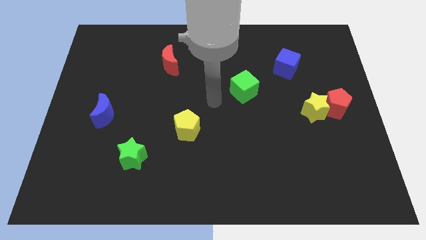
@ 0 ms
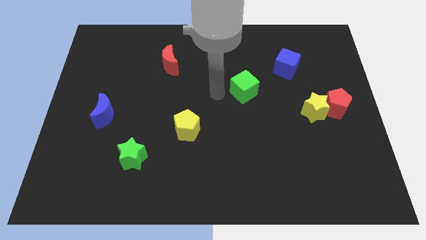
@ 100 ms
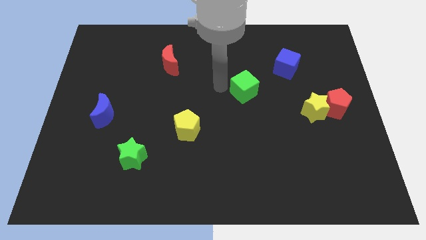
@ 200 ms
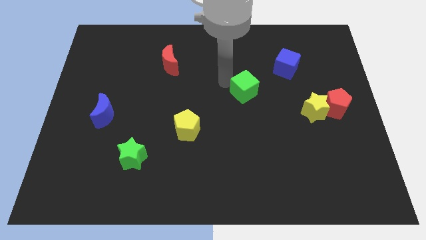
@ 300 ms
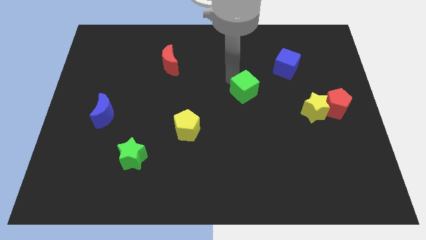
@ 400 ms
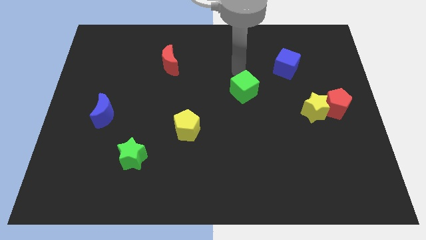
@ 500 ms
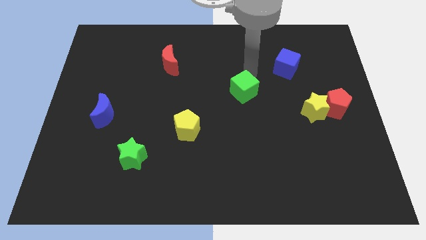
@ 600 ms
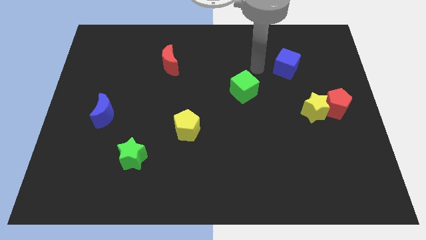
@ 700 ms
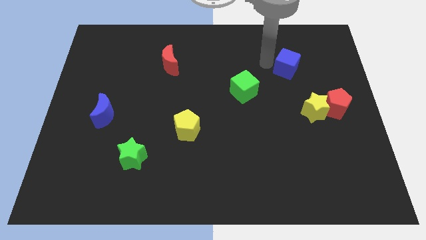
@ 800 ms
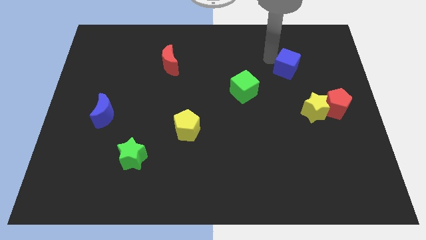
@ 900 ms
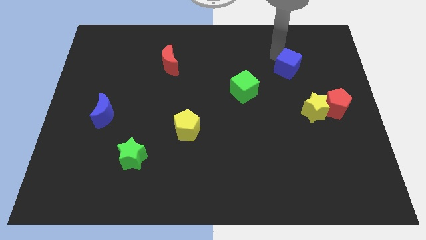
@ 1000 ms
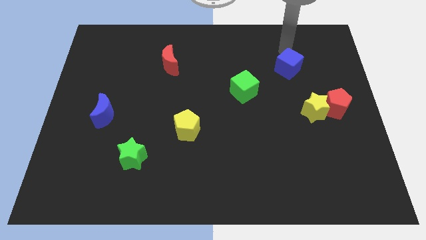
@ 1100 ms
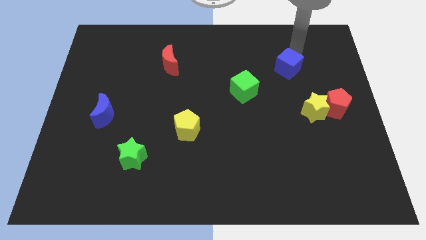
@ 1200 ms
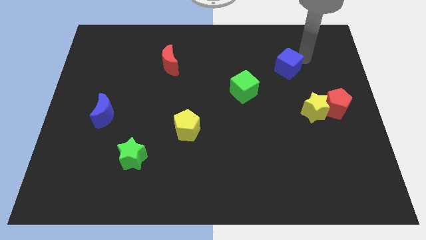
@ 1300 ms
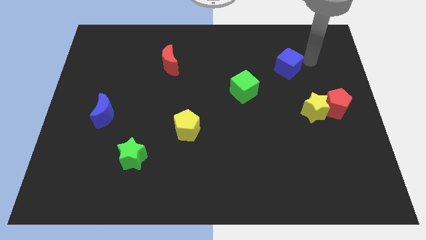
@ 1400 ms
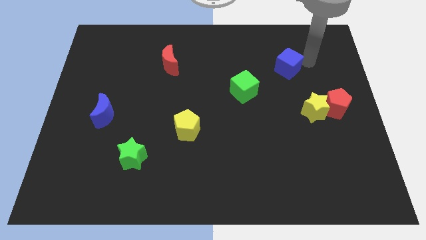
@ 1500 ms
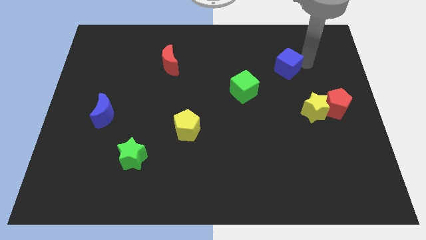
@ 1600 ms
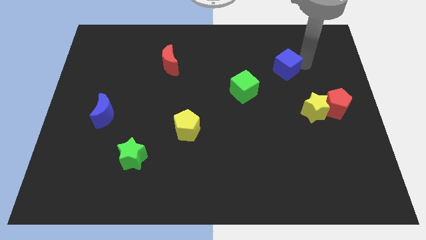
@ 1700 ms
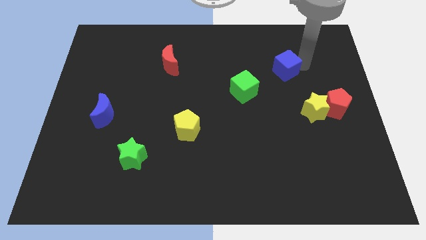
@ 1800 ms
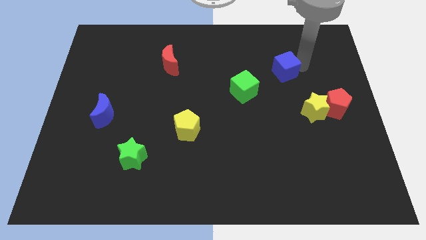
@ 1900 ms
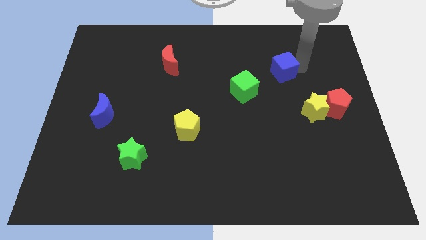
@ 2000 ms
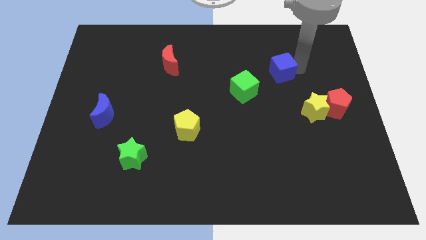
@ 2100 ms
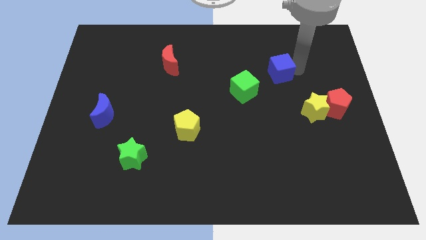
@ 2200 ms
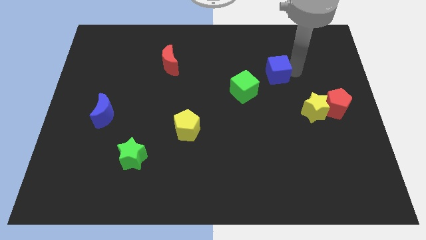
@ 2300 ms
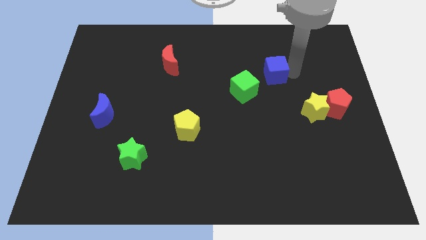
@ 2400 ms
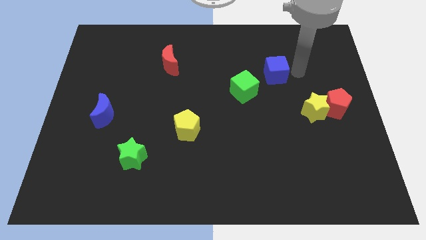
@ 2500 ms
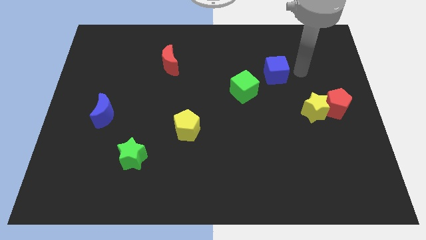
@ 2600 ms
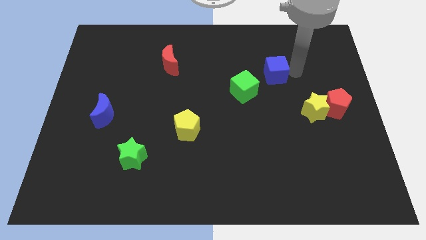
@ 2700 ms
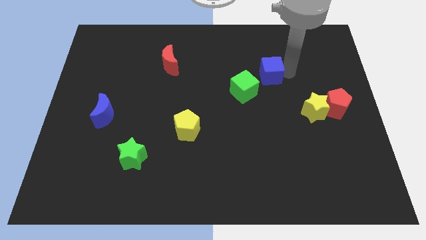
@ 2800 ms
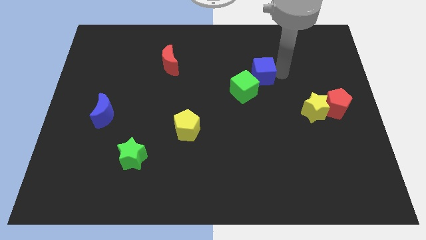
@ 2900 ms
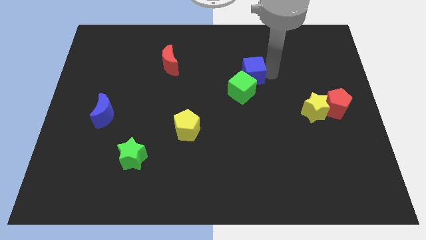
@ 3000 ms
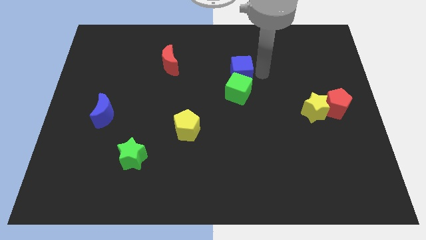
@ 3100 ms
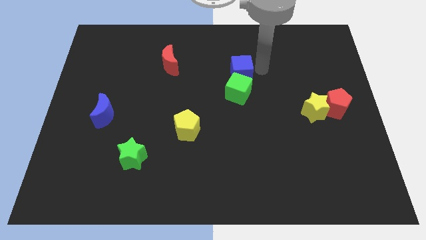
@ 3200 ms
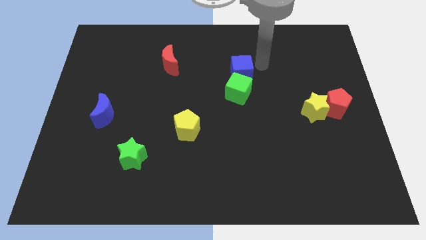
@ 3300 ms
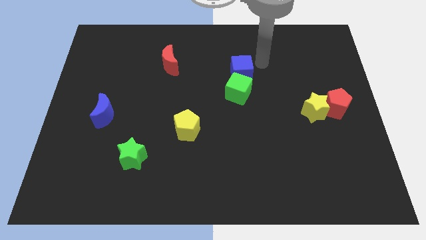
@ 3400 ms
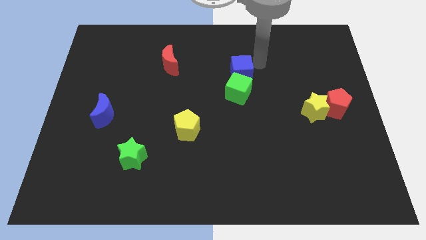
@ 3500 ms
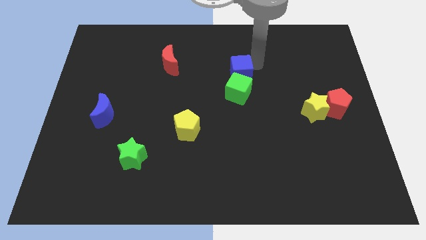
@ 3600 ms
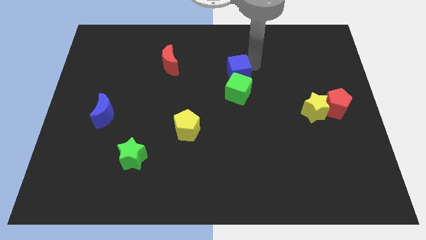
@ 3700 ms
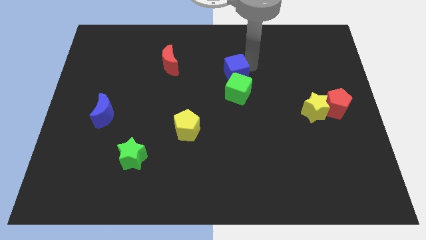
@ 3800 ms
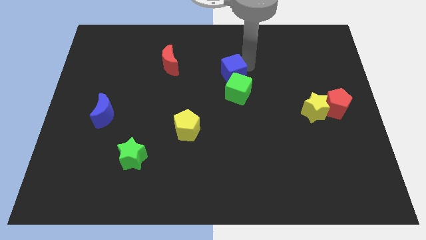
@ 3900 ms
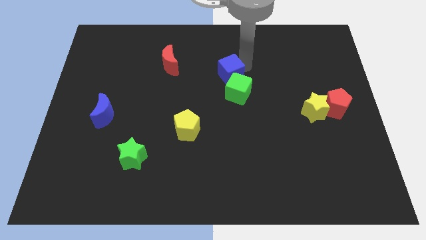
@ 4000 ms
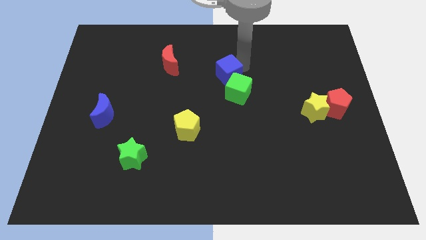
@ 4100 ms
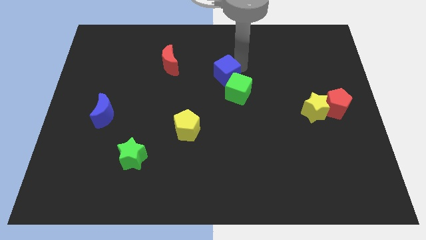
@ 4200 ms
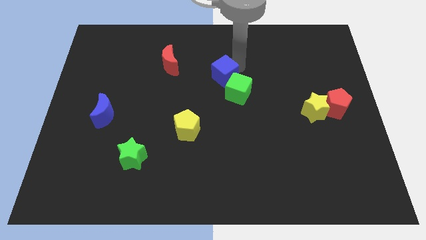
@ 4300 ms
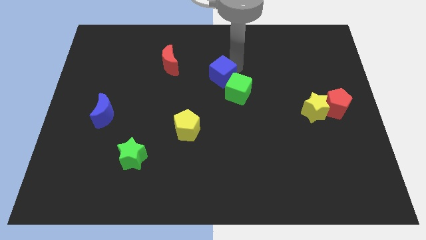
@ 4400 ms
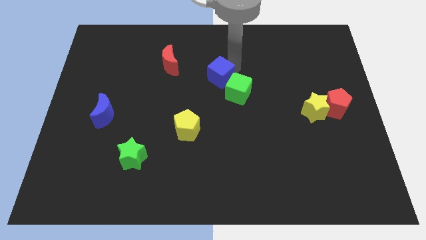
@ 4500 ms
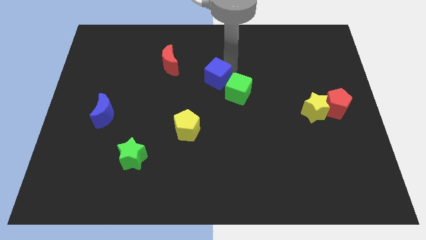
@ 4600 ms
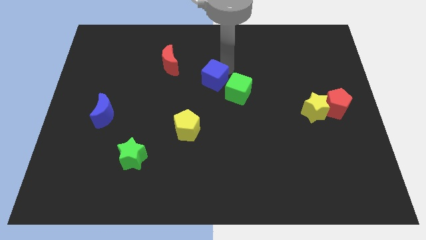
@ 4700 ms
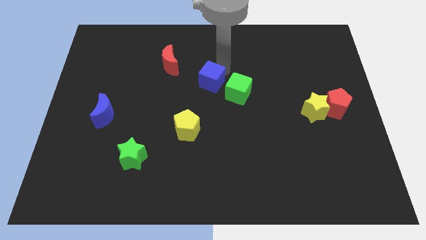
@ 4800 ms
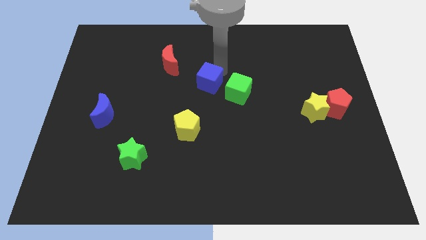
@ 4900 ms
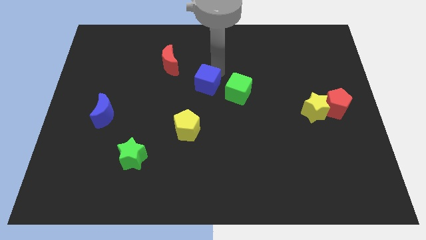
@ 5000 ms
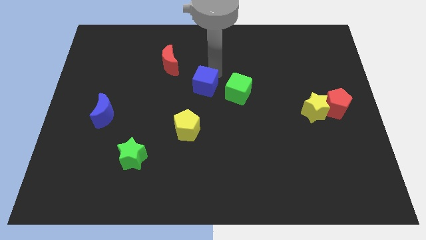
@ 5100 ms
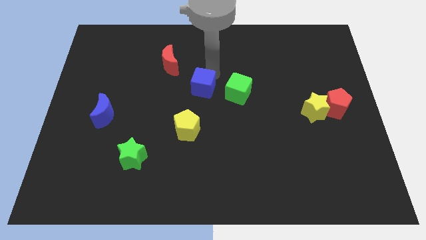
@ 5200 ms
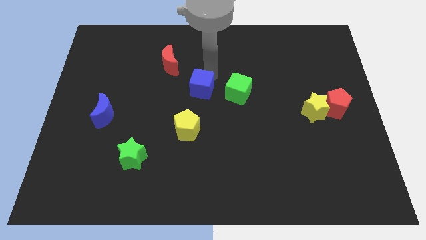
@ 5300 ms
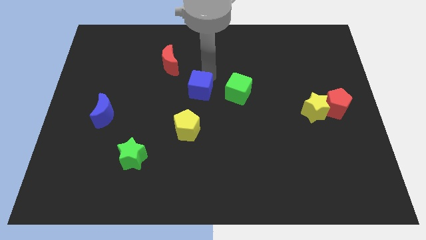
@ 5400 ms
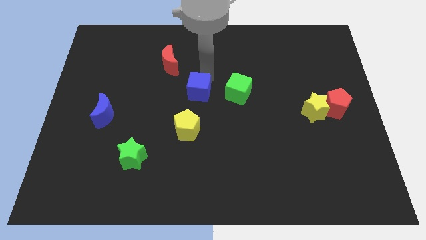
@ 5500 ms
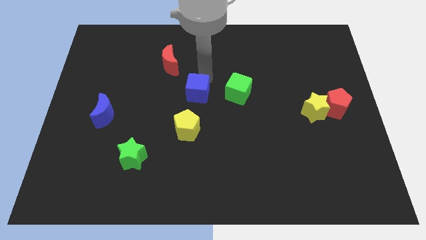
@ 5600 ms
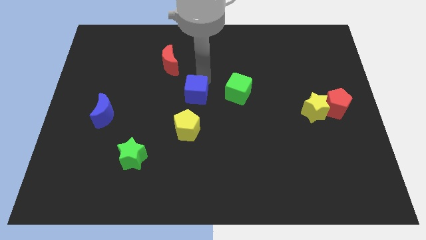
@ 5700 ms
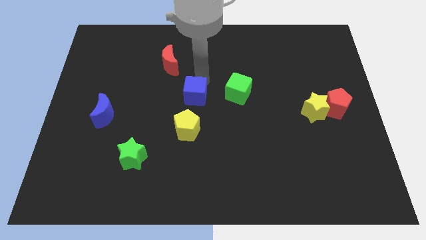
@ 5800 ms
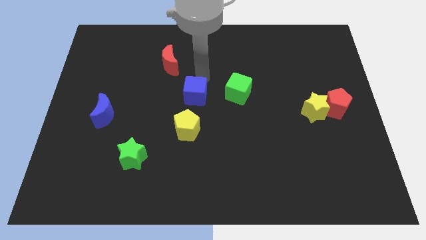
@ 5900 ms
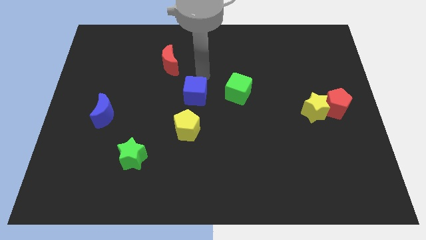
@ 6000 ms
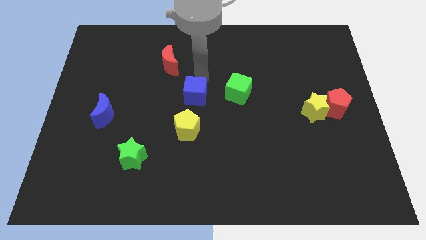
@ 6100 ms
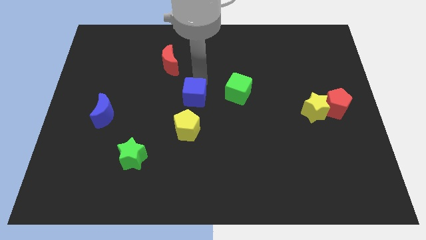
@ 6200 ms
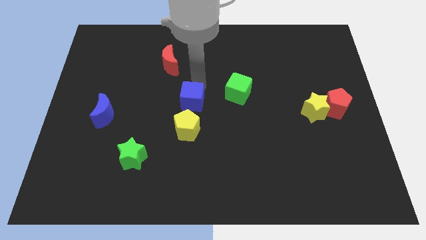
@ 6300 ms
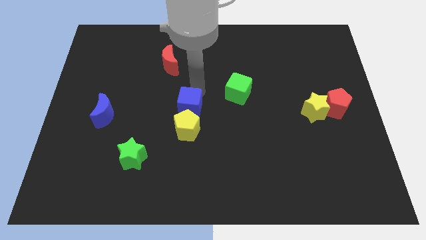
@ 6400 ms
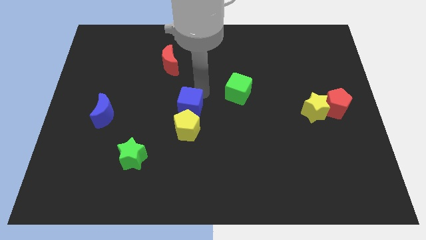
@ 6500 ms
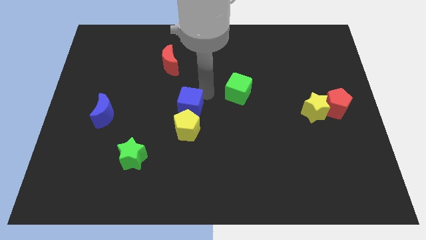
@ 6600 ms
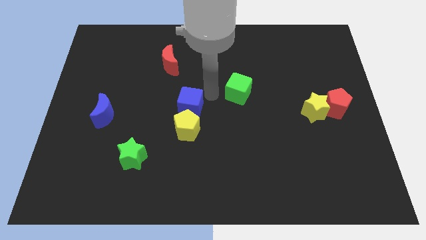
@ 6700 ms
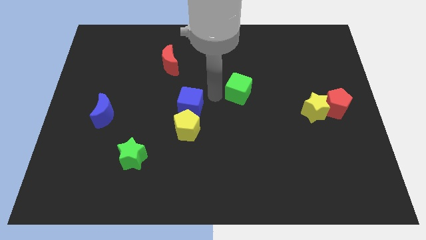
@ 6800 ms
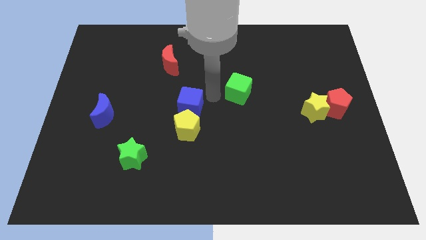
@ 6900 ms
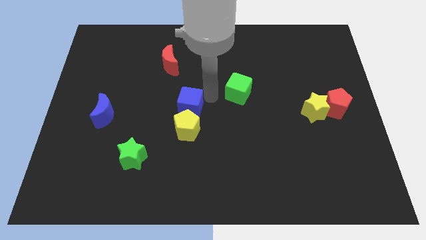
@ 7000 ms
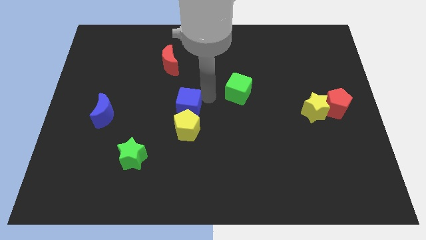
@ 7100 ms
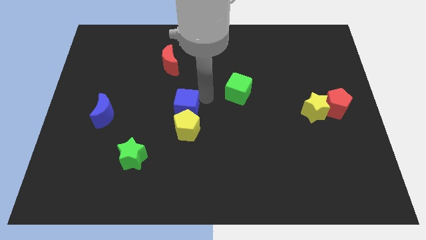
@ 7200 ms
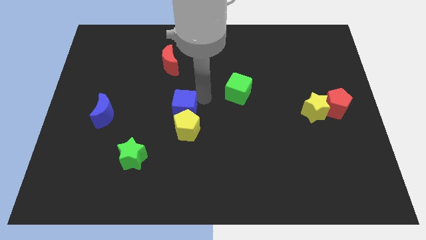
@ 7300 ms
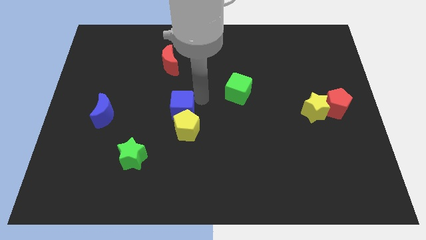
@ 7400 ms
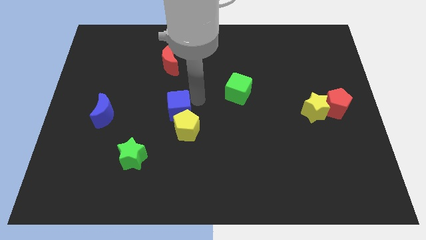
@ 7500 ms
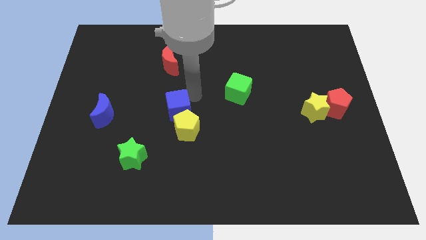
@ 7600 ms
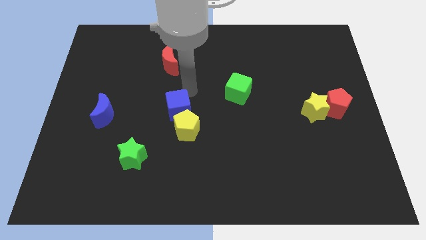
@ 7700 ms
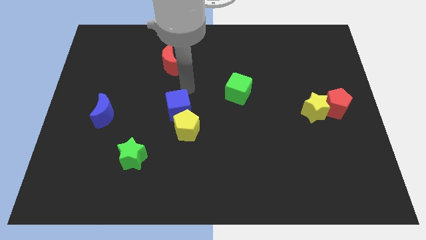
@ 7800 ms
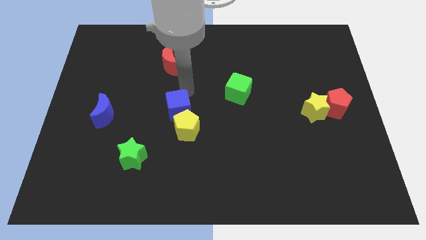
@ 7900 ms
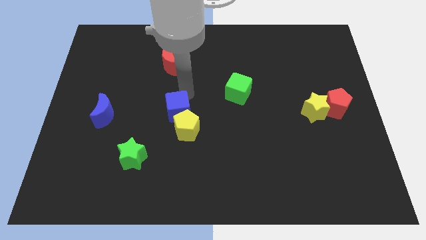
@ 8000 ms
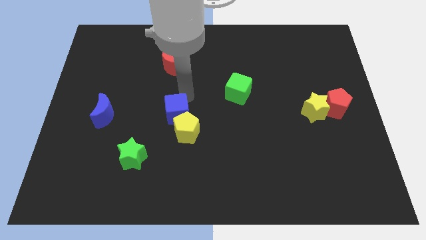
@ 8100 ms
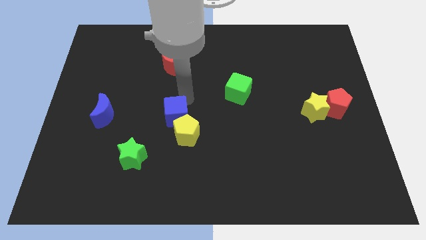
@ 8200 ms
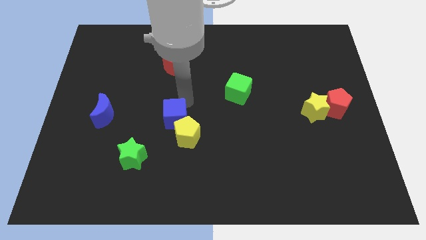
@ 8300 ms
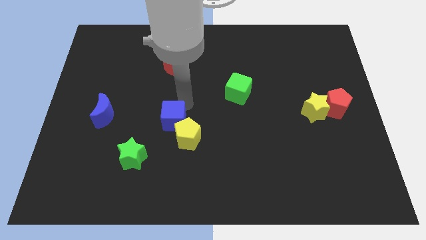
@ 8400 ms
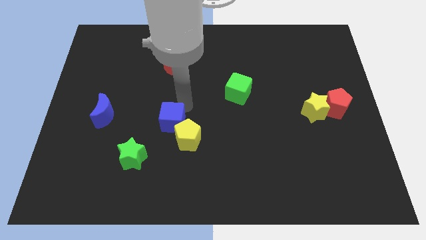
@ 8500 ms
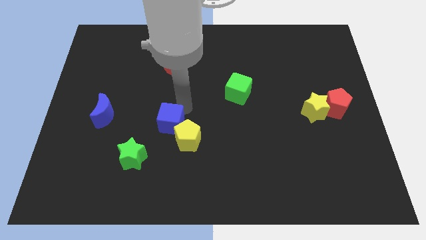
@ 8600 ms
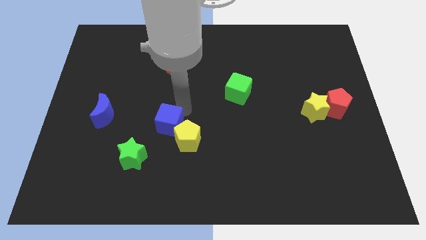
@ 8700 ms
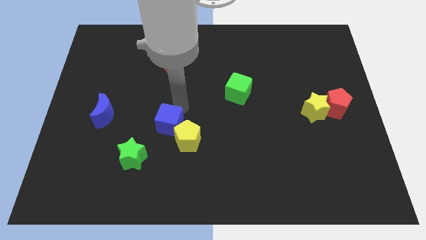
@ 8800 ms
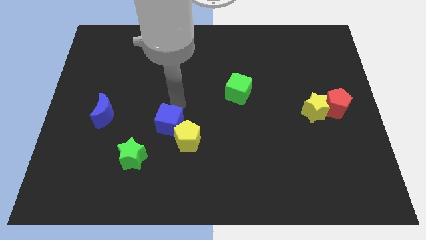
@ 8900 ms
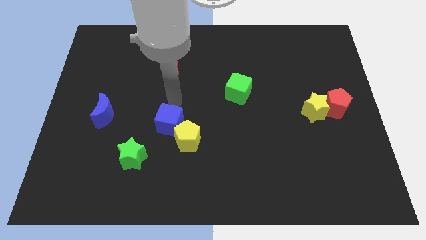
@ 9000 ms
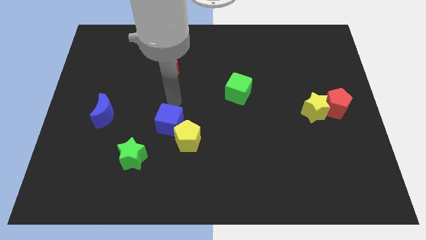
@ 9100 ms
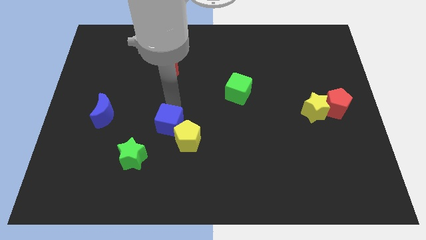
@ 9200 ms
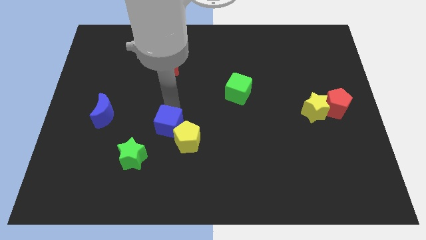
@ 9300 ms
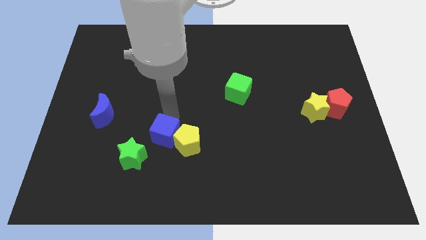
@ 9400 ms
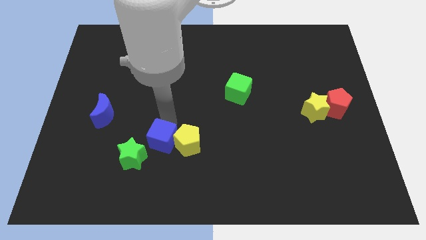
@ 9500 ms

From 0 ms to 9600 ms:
slide the blue cube diagonally down and to the left of the yellow pentagon
